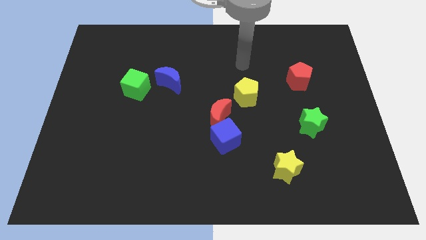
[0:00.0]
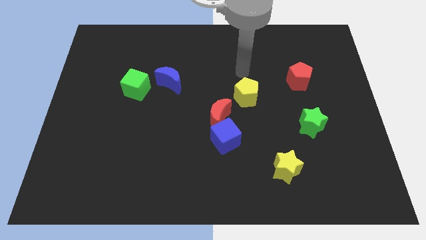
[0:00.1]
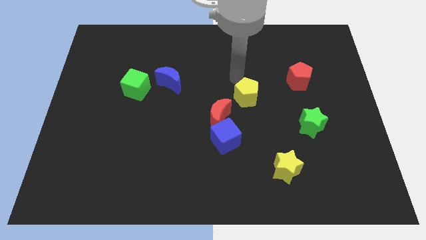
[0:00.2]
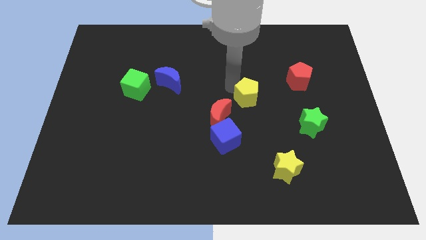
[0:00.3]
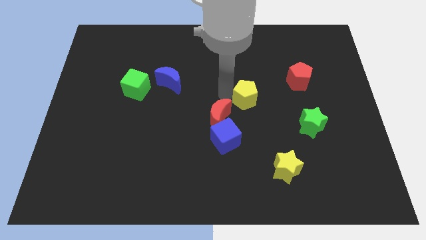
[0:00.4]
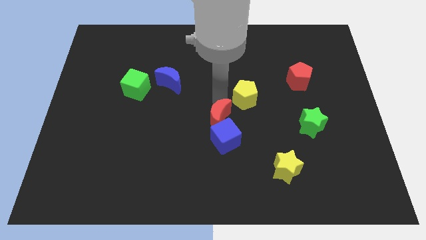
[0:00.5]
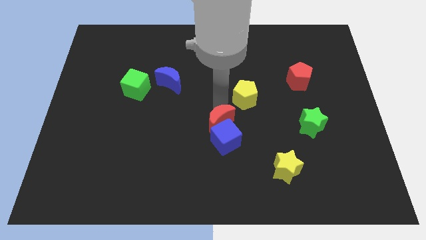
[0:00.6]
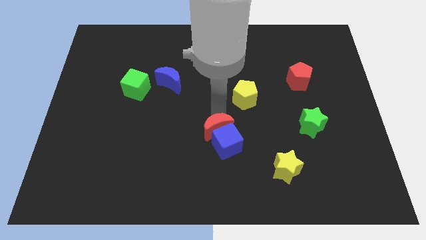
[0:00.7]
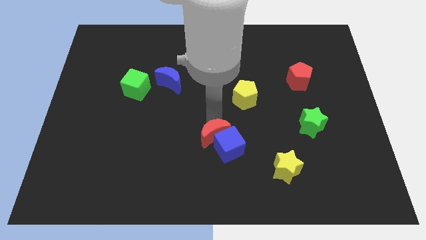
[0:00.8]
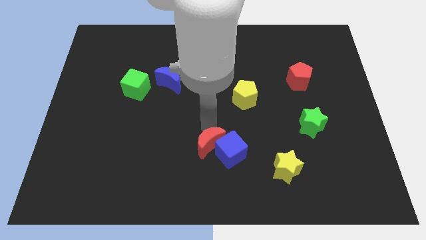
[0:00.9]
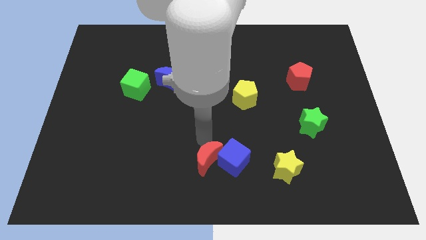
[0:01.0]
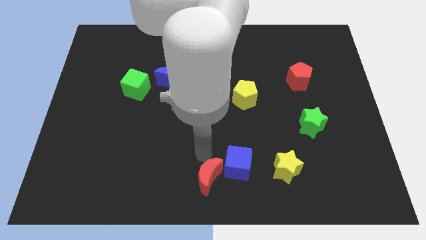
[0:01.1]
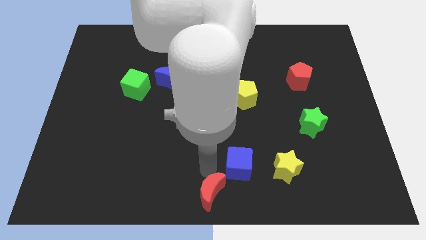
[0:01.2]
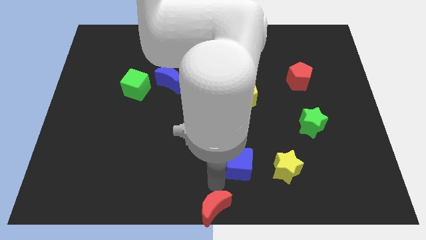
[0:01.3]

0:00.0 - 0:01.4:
separate the blue cube from the red moon

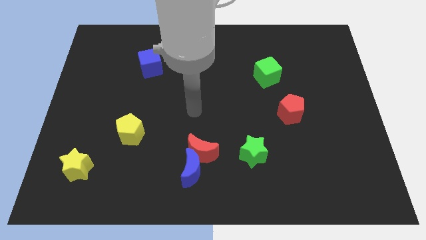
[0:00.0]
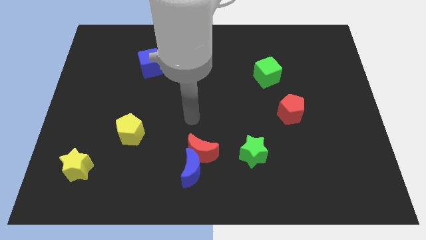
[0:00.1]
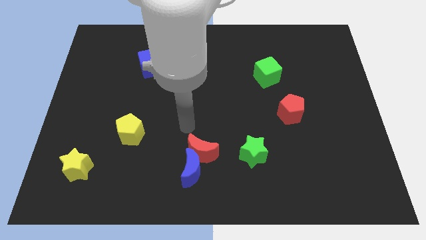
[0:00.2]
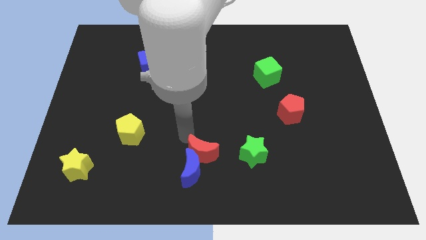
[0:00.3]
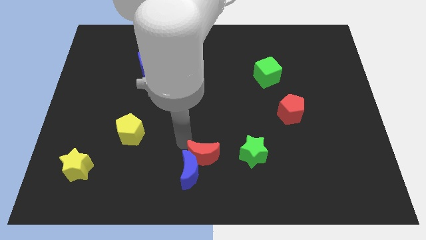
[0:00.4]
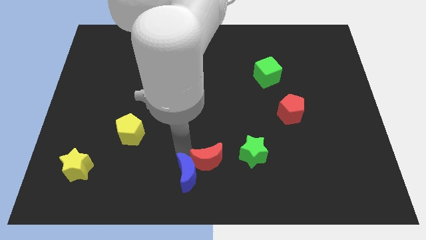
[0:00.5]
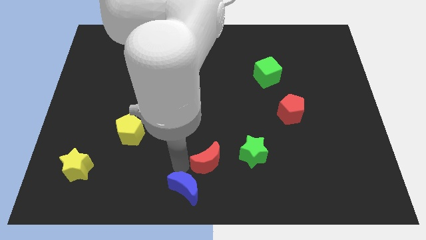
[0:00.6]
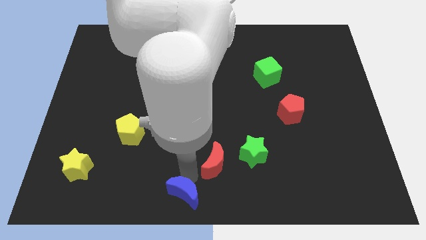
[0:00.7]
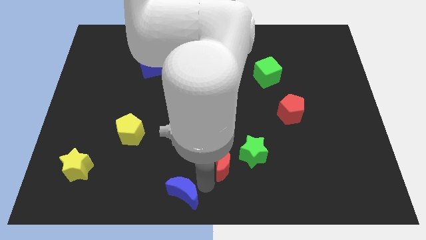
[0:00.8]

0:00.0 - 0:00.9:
pull the red moon apart from the blue moon

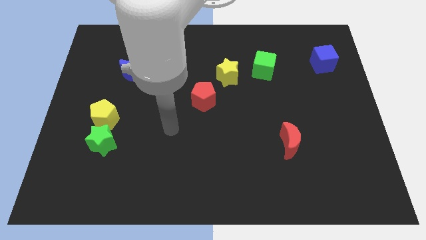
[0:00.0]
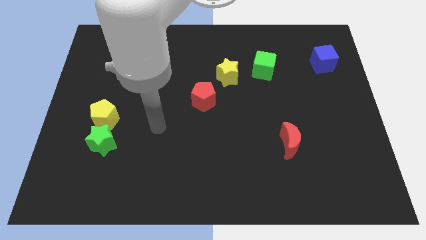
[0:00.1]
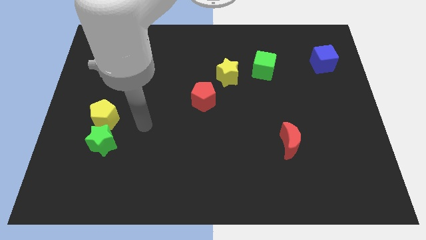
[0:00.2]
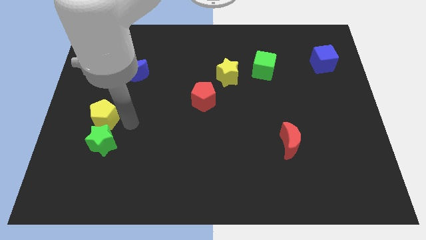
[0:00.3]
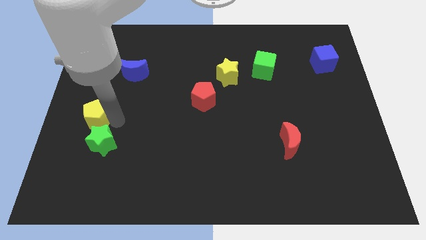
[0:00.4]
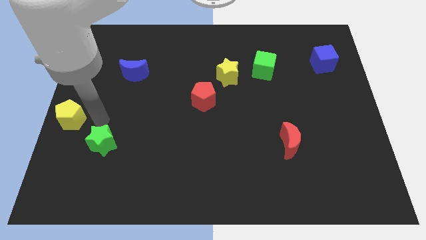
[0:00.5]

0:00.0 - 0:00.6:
pull the green star apart from the yellow pentagon

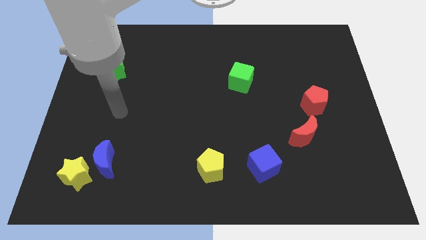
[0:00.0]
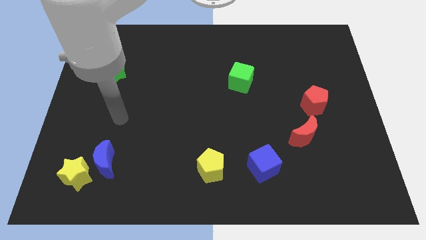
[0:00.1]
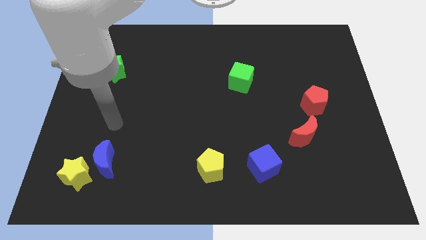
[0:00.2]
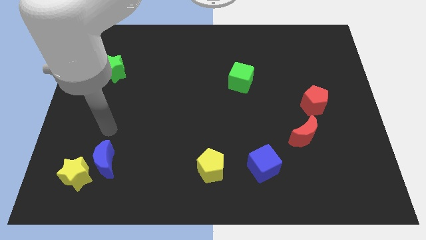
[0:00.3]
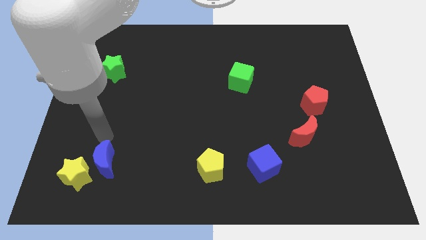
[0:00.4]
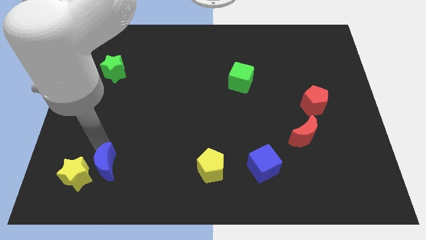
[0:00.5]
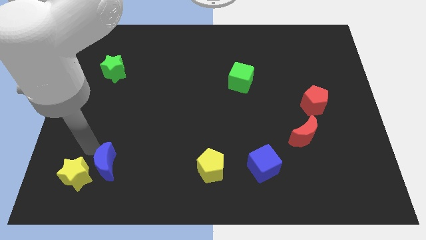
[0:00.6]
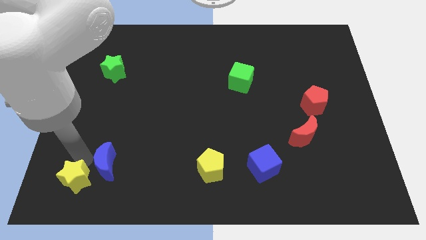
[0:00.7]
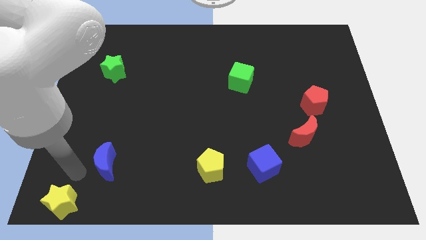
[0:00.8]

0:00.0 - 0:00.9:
separate the blue moon from the yellow star

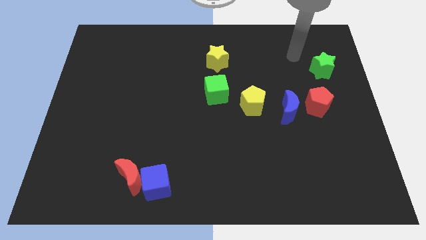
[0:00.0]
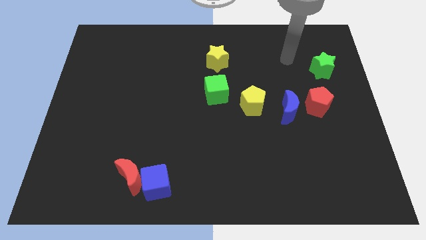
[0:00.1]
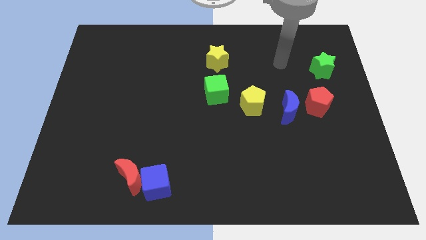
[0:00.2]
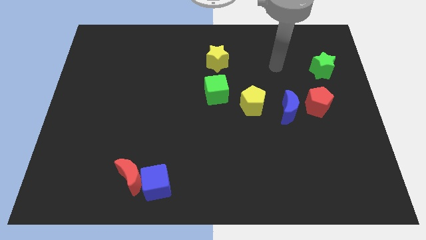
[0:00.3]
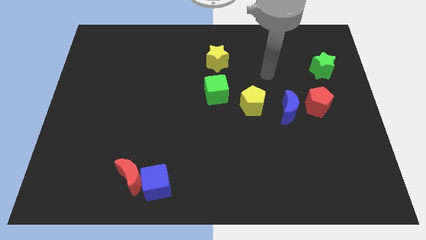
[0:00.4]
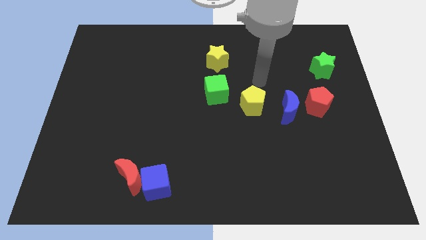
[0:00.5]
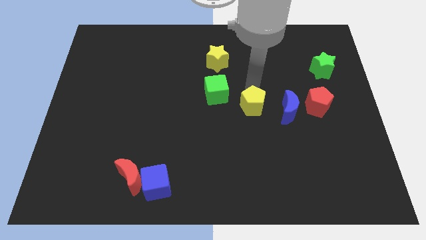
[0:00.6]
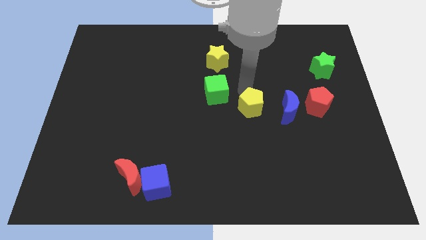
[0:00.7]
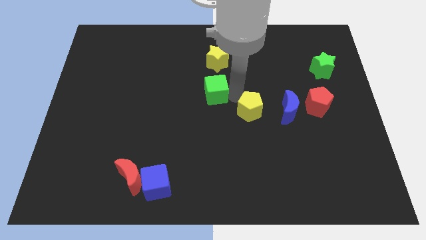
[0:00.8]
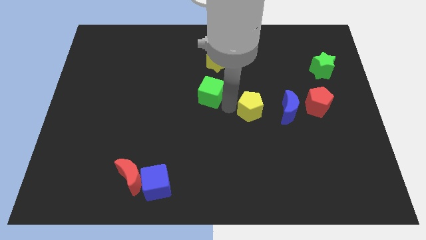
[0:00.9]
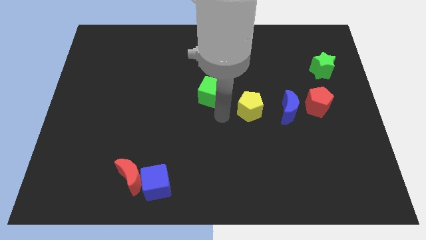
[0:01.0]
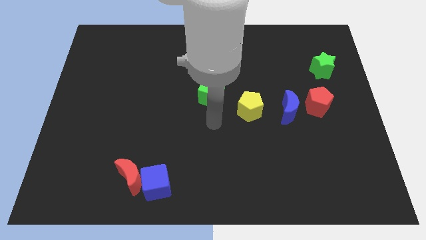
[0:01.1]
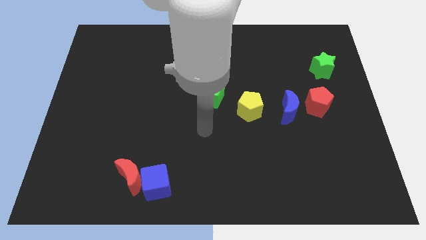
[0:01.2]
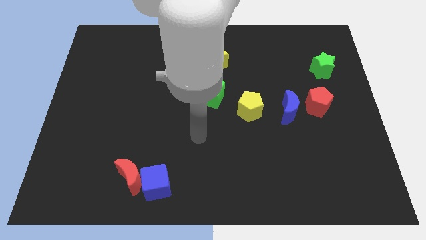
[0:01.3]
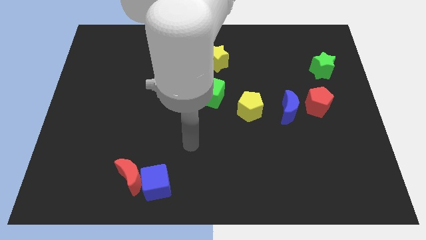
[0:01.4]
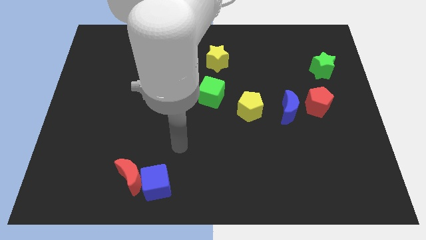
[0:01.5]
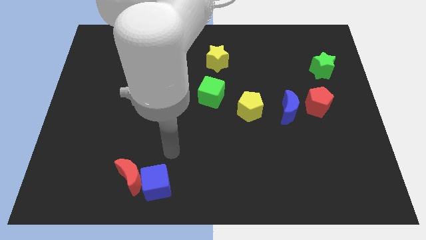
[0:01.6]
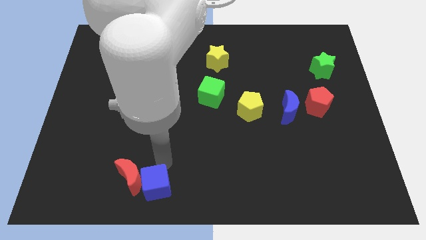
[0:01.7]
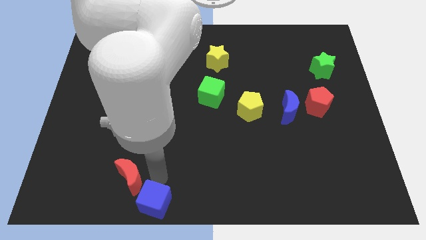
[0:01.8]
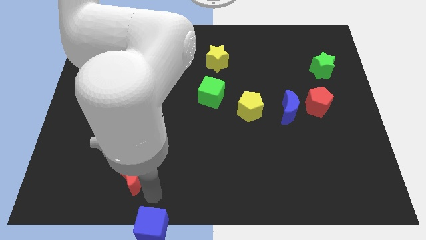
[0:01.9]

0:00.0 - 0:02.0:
separate the red moon from the blue cube

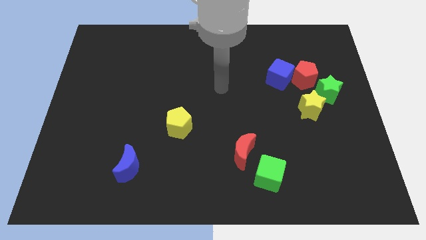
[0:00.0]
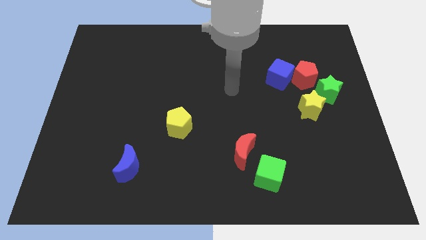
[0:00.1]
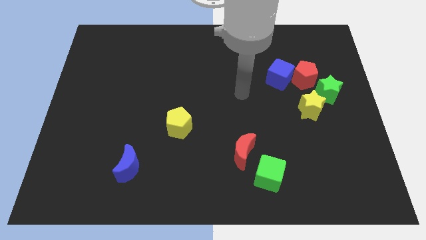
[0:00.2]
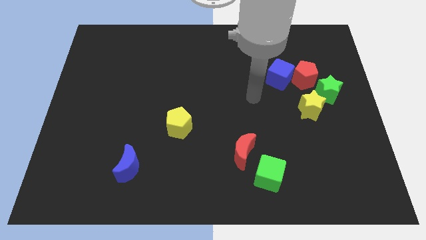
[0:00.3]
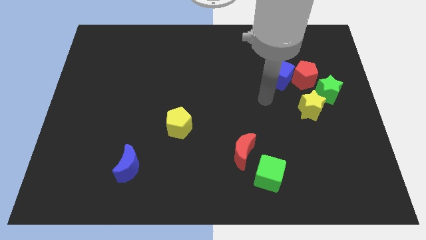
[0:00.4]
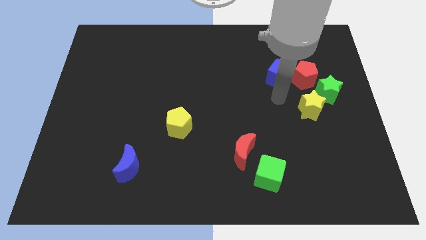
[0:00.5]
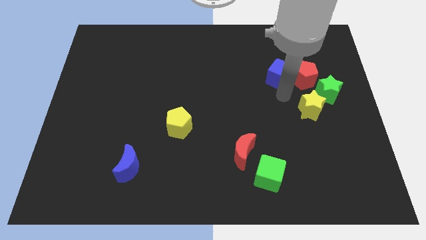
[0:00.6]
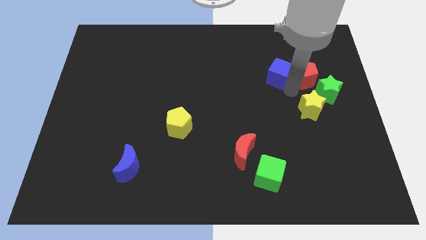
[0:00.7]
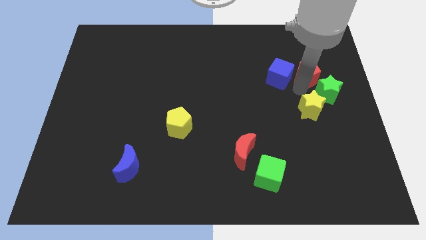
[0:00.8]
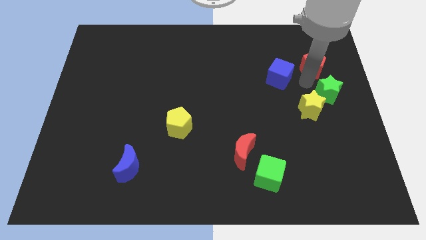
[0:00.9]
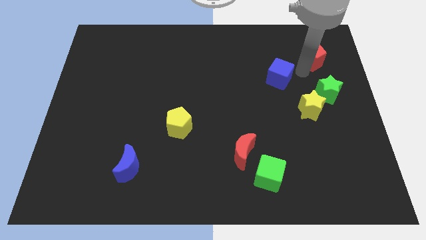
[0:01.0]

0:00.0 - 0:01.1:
pull the blue cube apart from the red pentagon

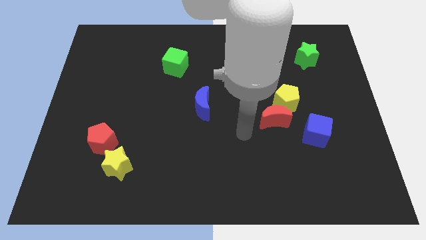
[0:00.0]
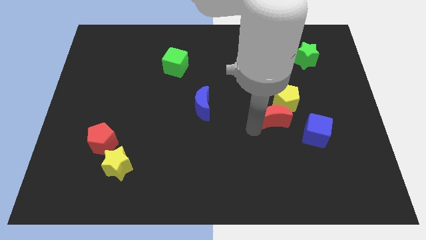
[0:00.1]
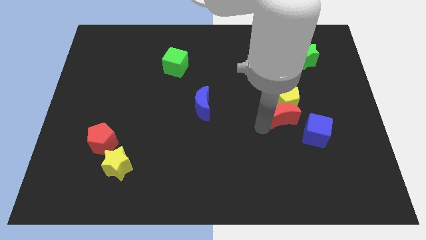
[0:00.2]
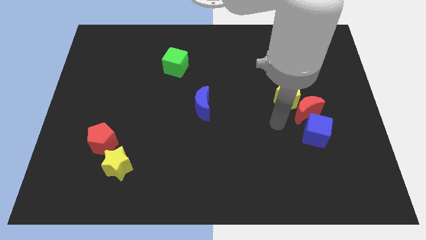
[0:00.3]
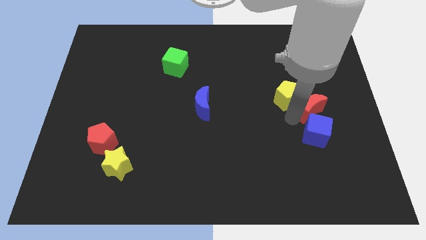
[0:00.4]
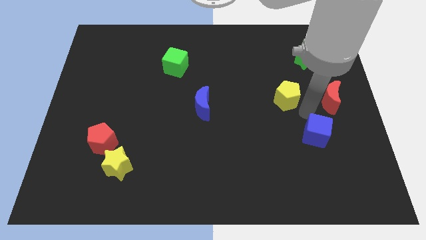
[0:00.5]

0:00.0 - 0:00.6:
move the yellow pentagon away from the red moon

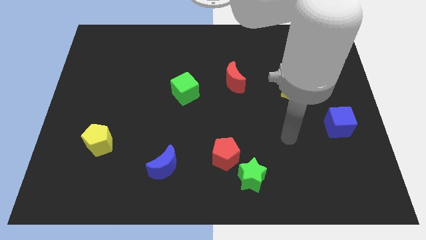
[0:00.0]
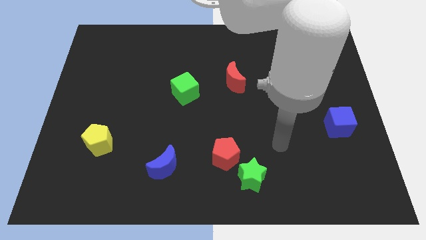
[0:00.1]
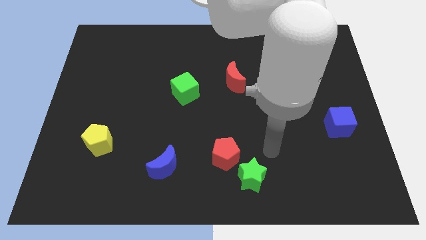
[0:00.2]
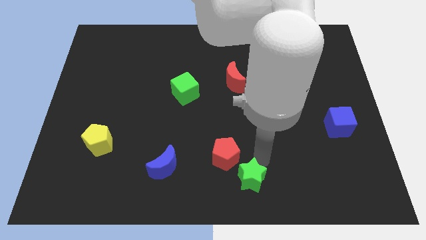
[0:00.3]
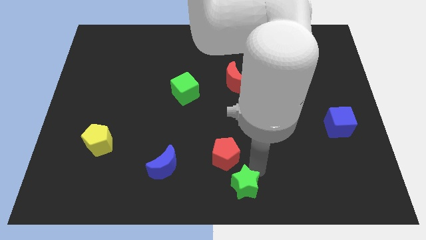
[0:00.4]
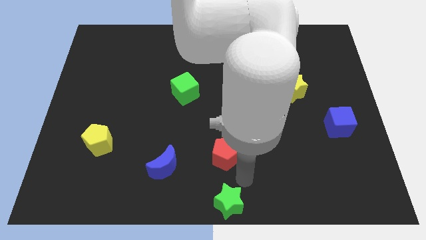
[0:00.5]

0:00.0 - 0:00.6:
pull the red pentagon apart from the green star

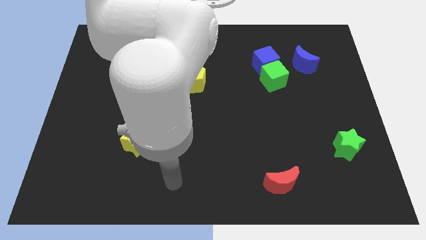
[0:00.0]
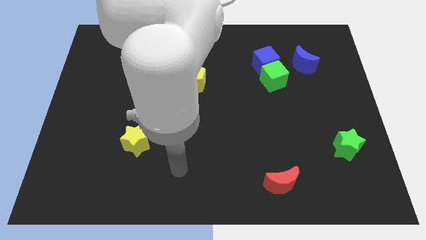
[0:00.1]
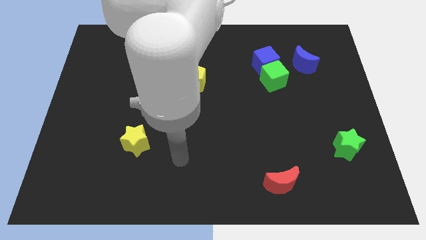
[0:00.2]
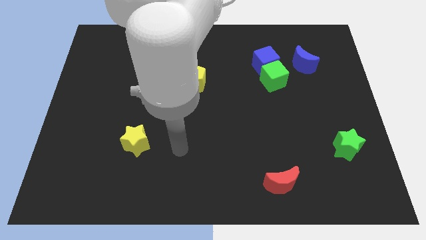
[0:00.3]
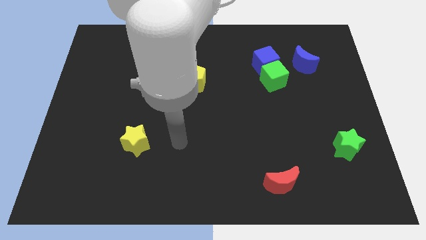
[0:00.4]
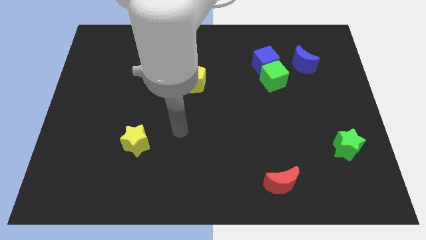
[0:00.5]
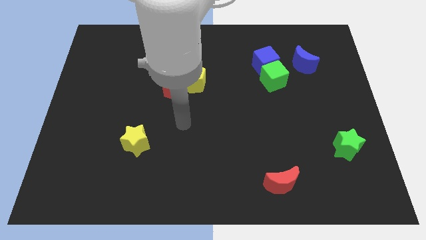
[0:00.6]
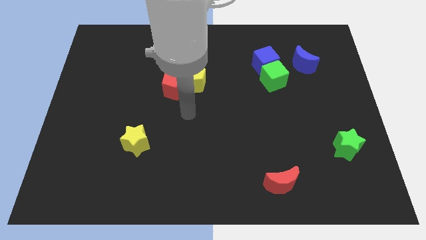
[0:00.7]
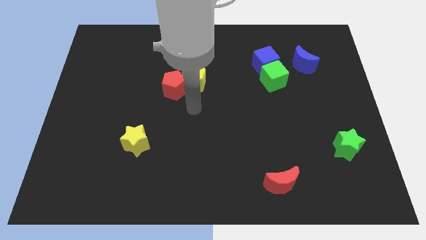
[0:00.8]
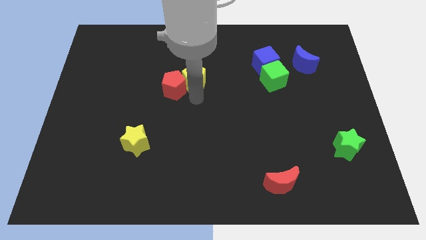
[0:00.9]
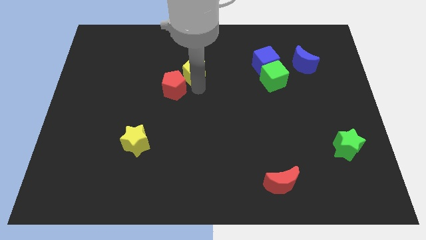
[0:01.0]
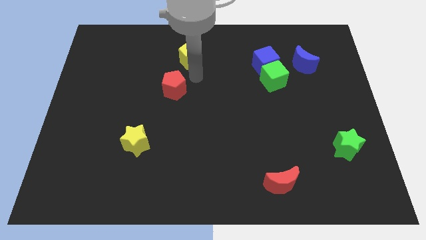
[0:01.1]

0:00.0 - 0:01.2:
separate the red pentagon from the yellow pentagon
